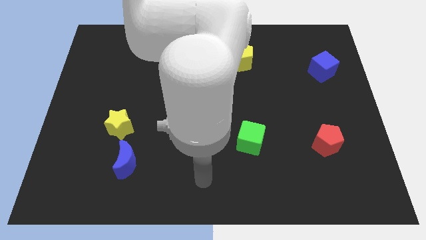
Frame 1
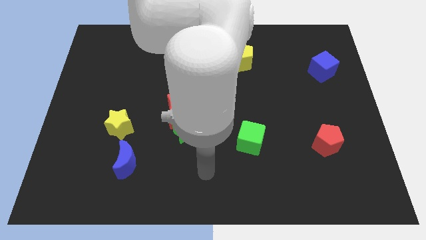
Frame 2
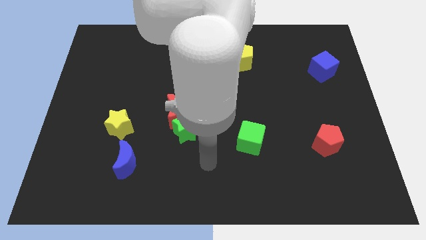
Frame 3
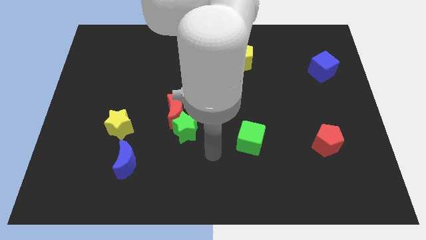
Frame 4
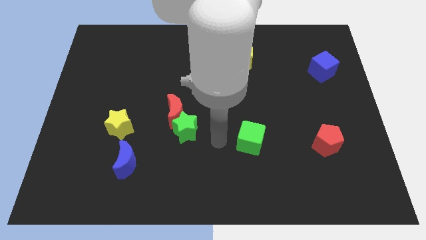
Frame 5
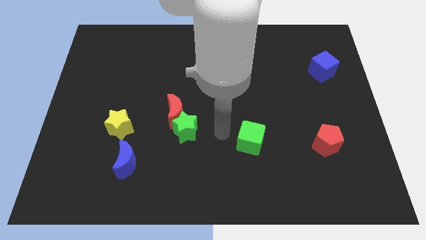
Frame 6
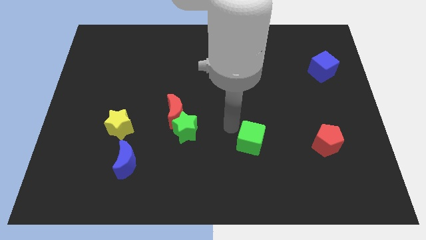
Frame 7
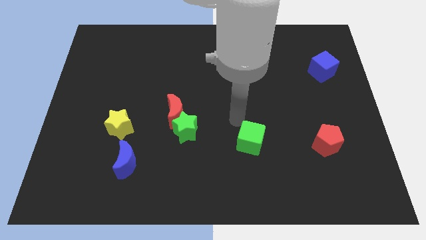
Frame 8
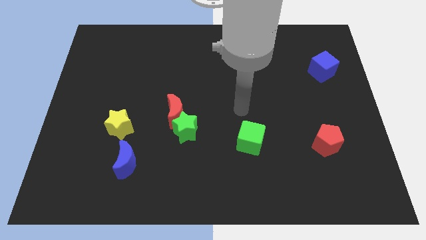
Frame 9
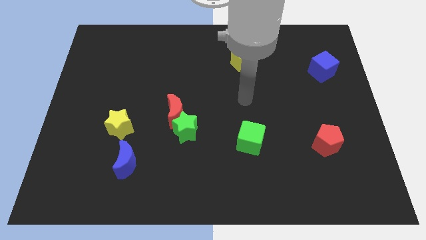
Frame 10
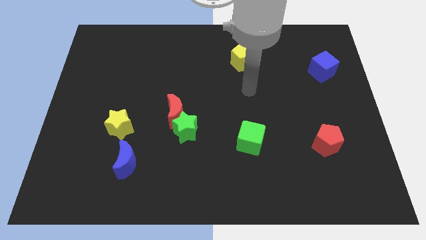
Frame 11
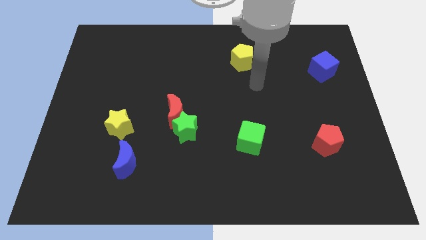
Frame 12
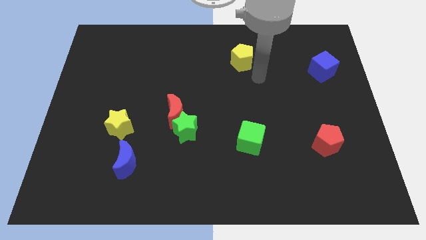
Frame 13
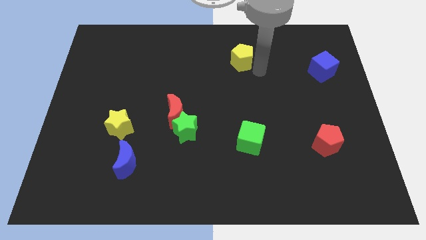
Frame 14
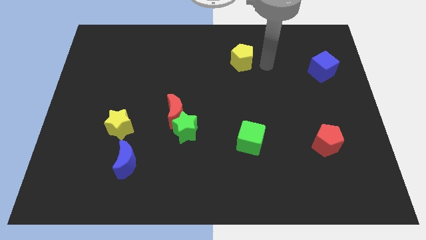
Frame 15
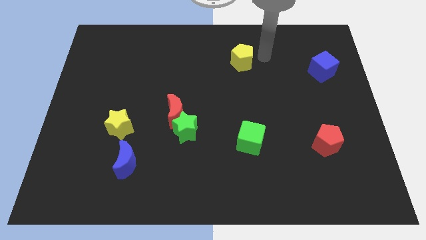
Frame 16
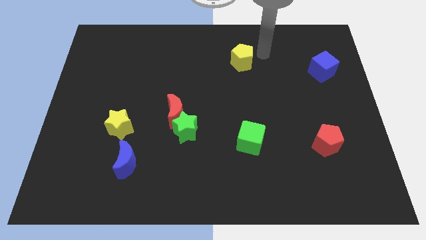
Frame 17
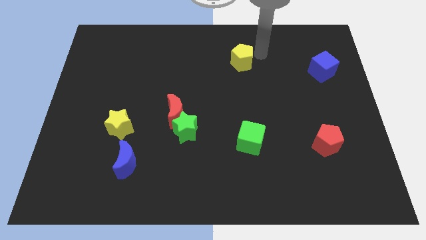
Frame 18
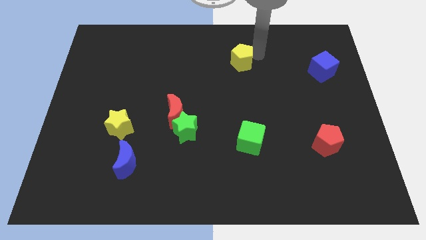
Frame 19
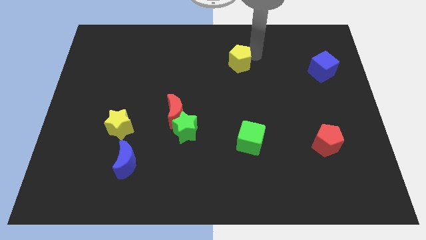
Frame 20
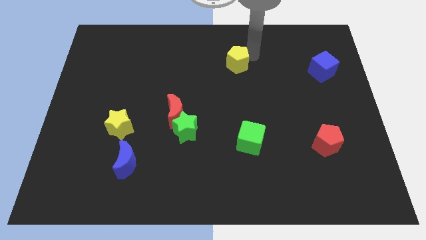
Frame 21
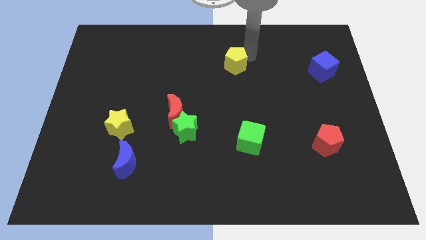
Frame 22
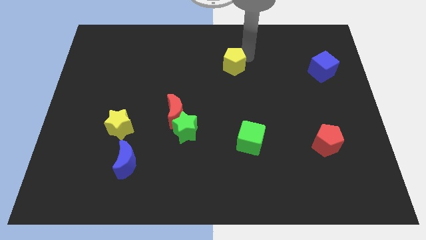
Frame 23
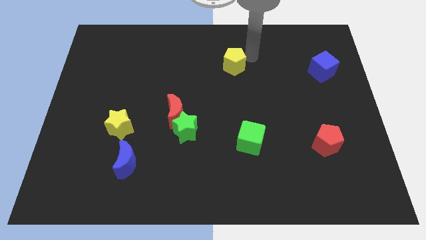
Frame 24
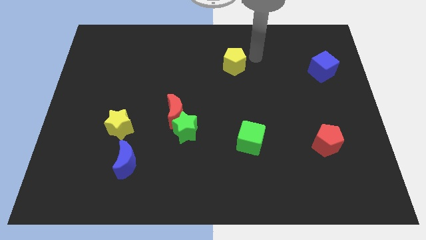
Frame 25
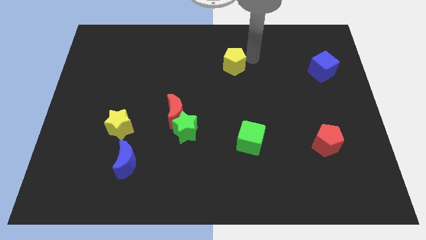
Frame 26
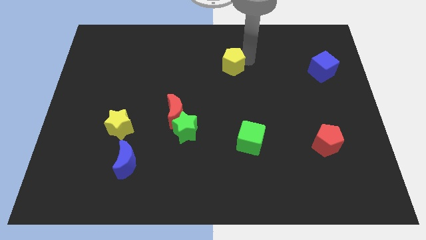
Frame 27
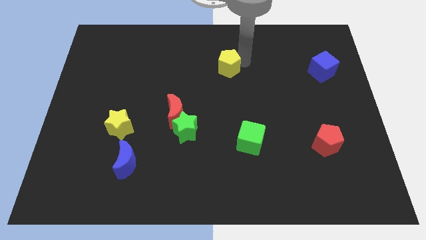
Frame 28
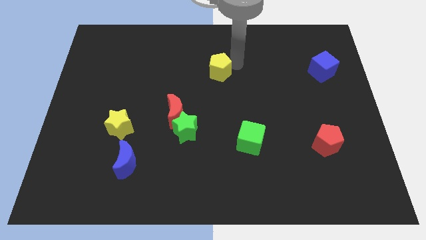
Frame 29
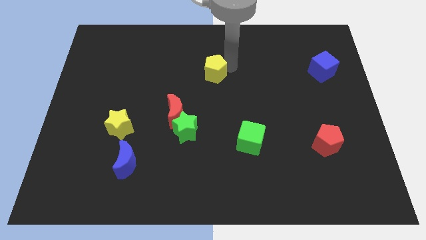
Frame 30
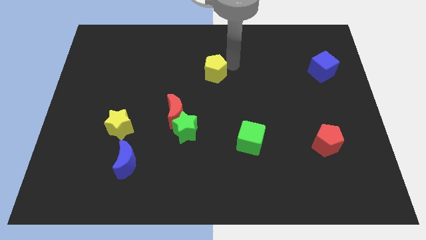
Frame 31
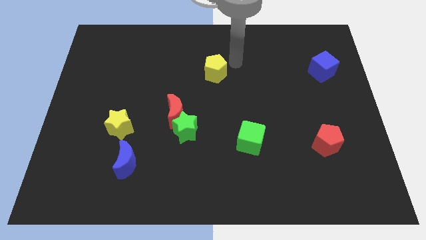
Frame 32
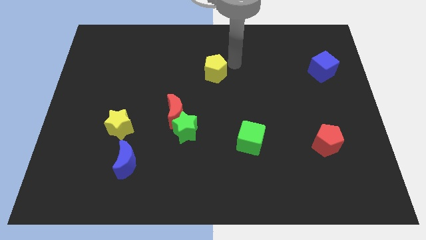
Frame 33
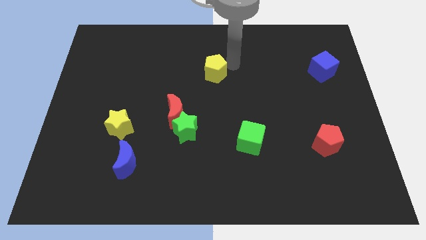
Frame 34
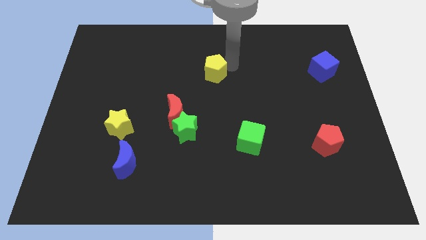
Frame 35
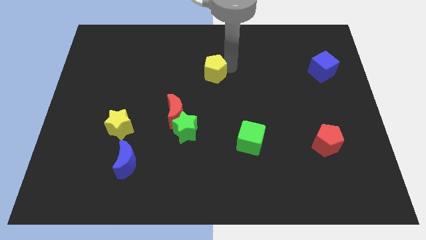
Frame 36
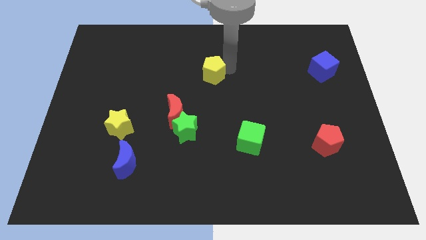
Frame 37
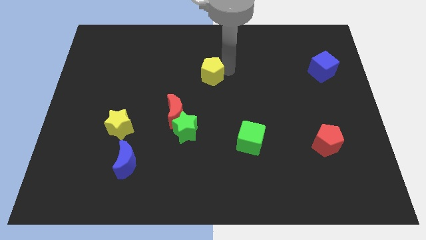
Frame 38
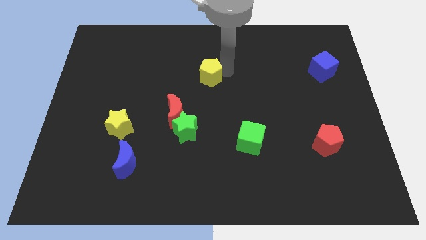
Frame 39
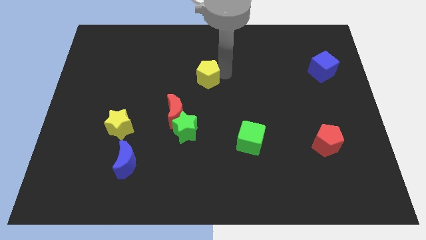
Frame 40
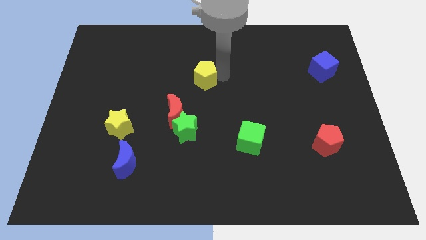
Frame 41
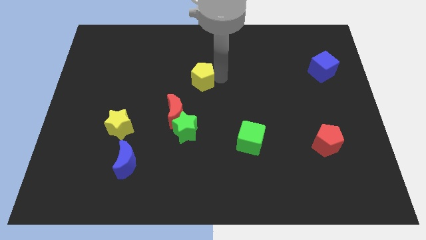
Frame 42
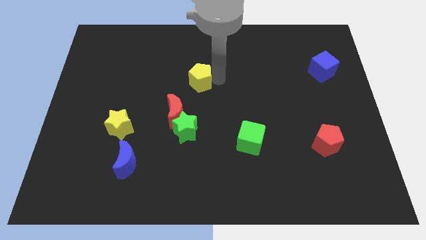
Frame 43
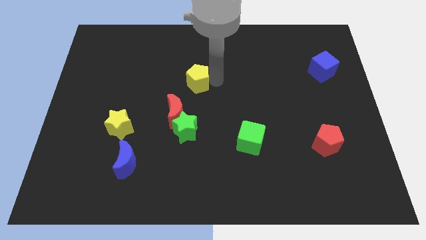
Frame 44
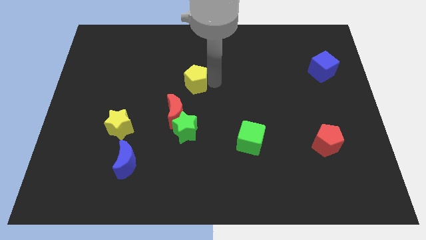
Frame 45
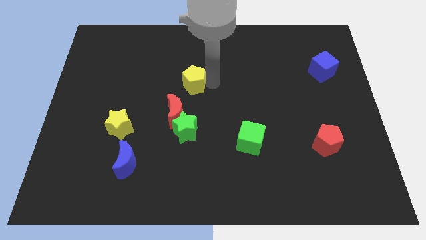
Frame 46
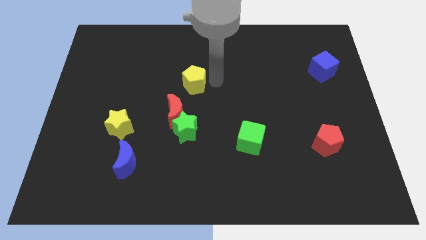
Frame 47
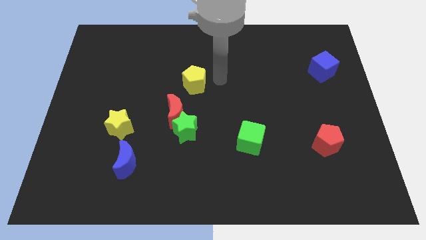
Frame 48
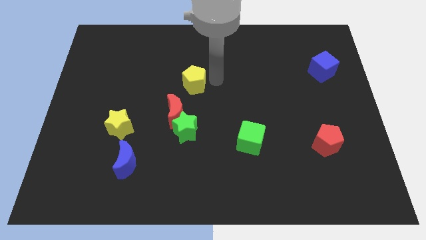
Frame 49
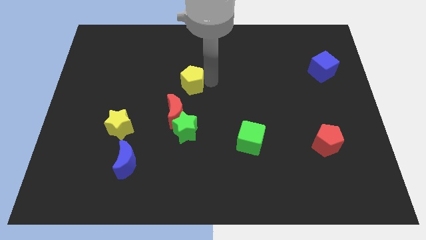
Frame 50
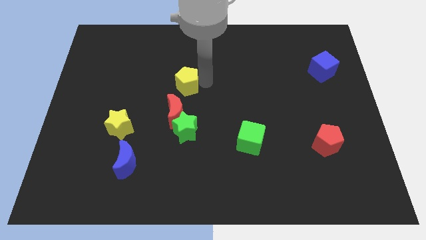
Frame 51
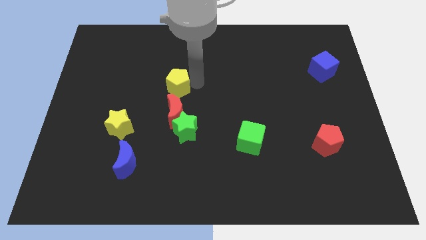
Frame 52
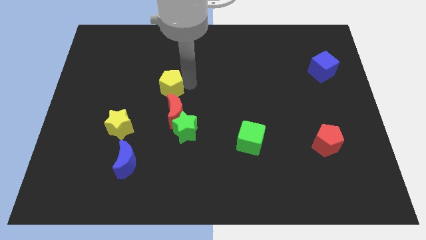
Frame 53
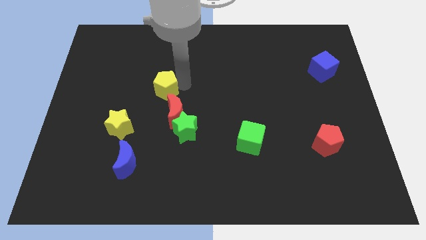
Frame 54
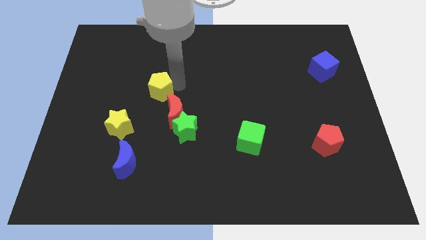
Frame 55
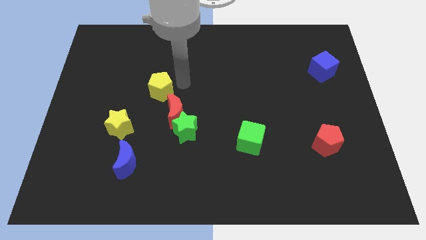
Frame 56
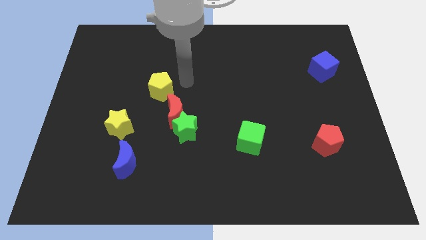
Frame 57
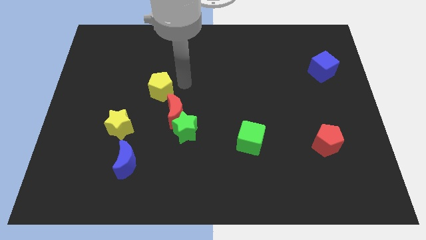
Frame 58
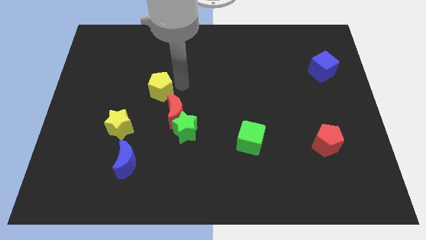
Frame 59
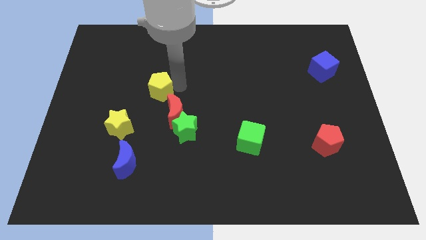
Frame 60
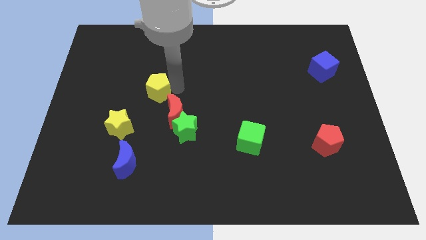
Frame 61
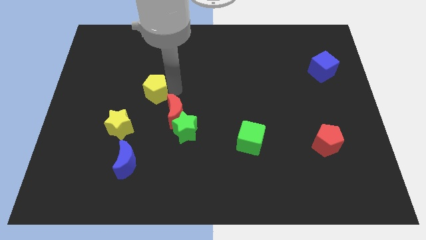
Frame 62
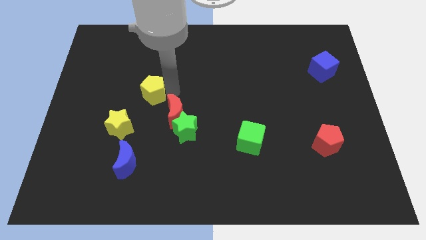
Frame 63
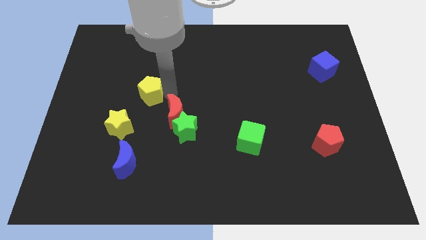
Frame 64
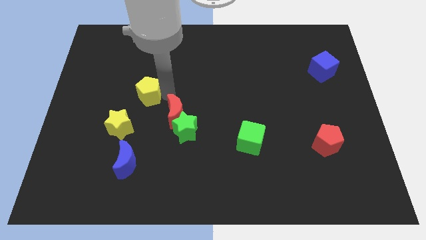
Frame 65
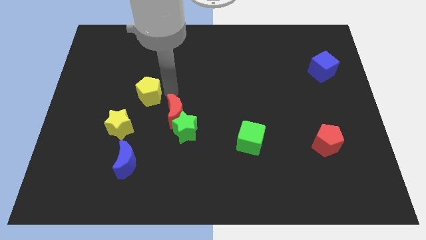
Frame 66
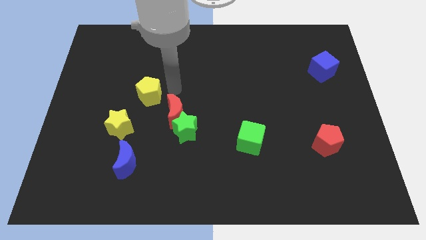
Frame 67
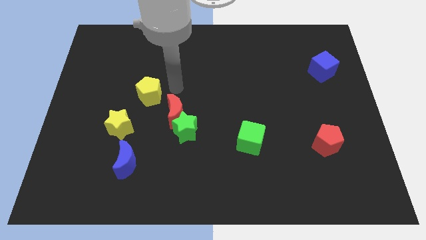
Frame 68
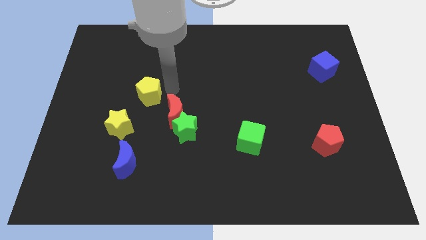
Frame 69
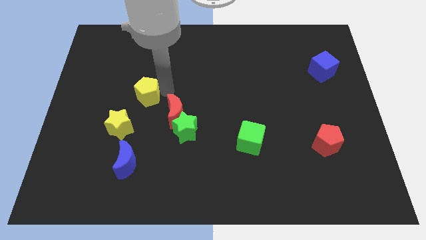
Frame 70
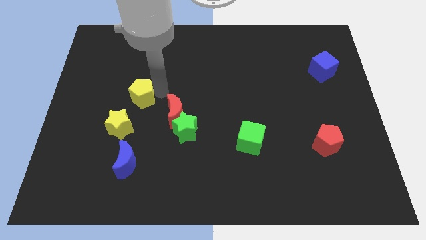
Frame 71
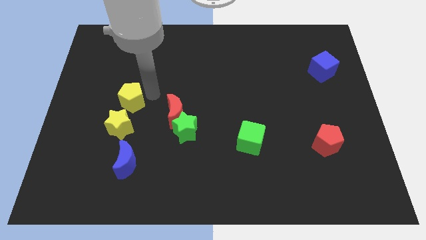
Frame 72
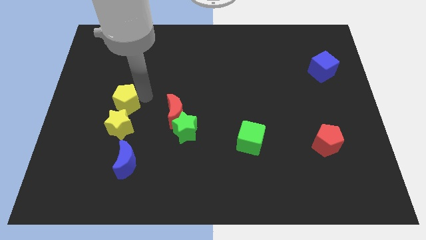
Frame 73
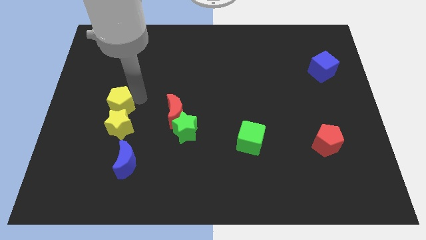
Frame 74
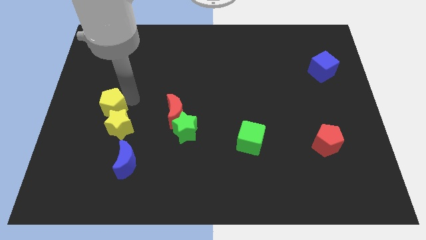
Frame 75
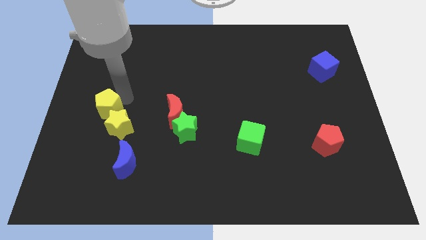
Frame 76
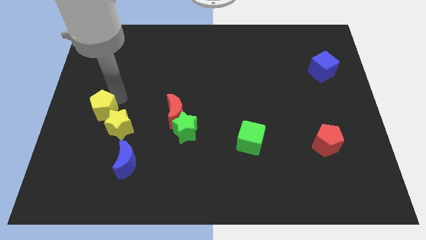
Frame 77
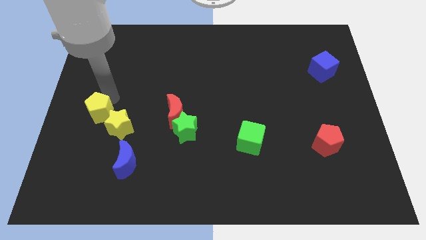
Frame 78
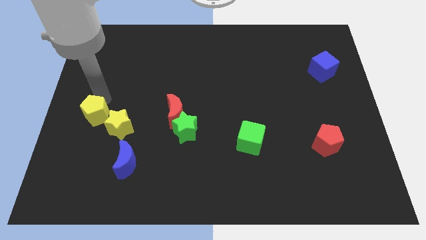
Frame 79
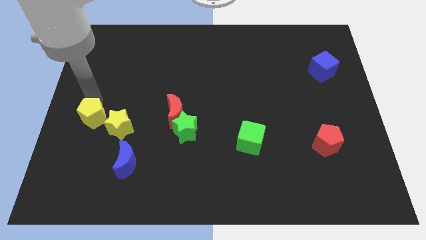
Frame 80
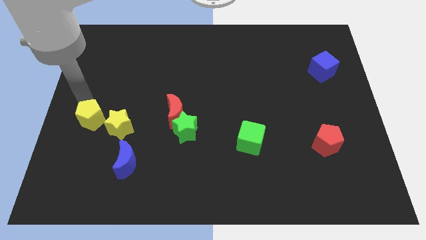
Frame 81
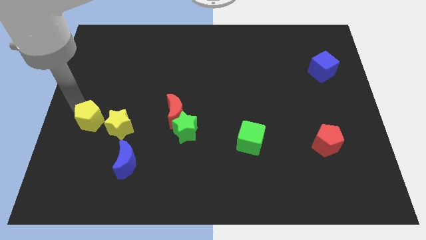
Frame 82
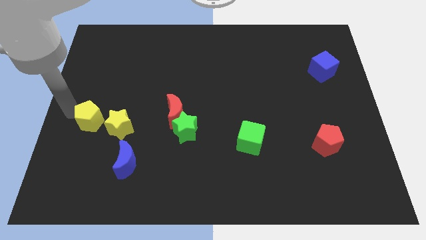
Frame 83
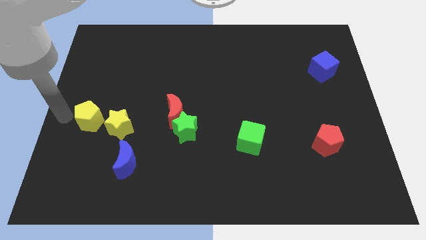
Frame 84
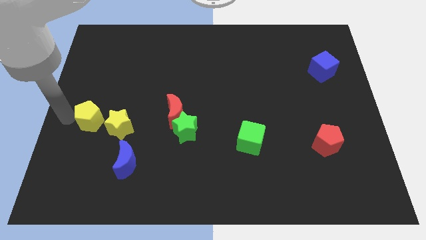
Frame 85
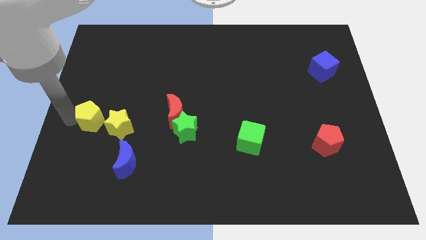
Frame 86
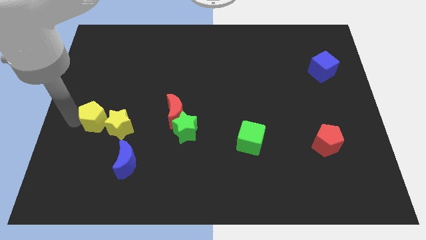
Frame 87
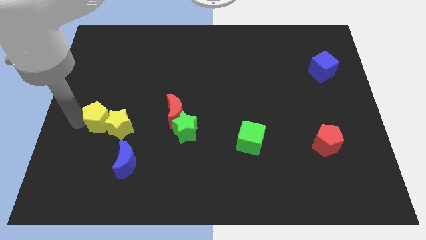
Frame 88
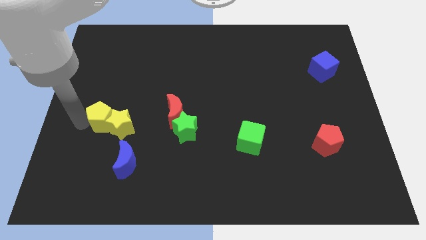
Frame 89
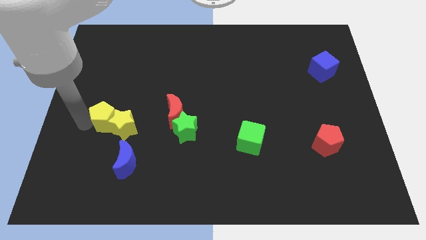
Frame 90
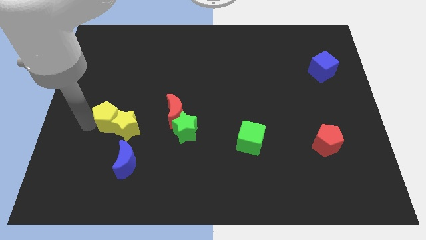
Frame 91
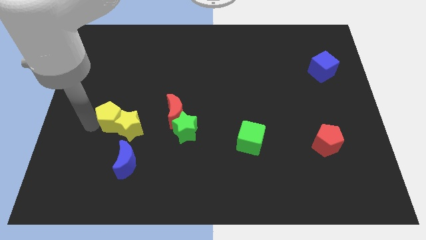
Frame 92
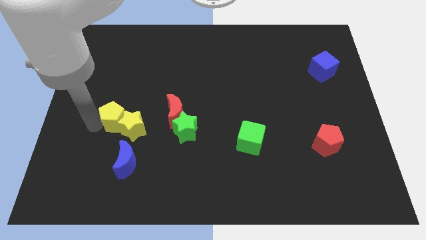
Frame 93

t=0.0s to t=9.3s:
push the yellow pentagon above the blue moon
